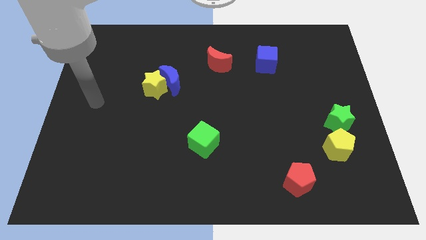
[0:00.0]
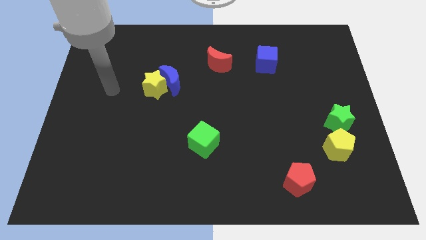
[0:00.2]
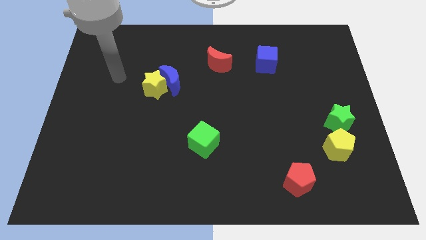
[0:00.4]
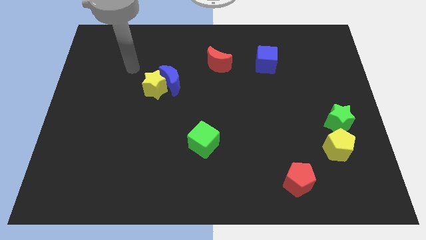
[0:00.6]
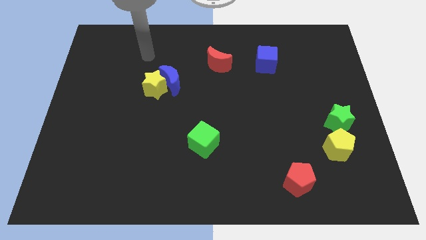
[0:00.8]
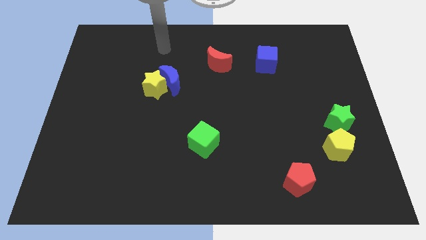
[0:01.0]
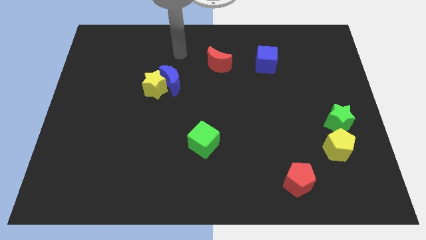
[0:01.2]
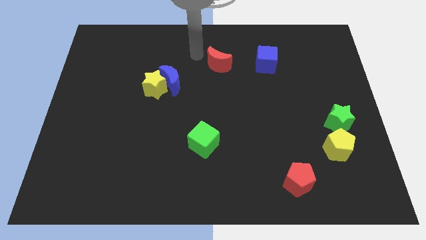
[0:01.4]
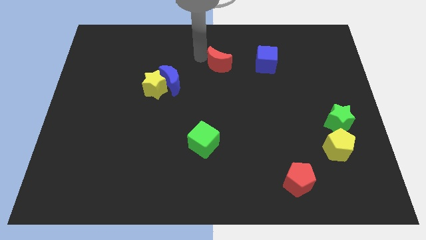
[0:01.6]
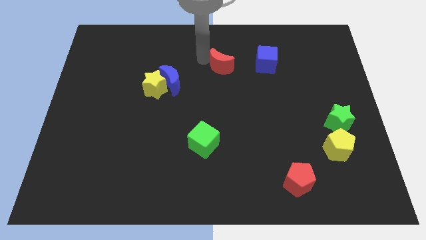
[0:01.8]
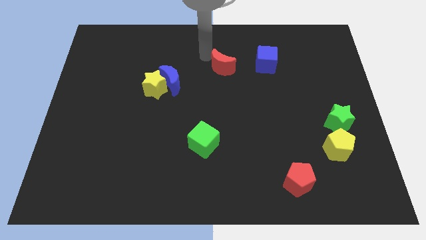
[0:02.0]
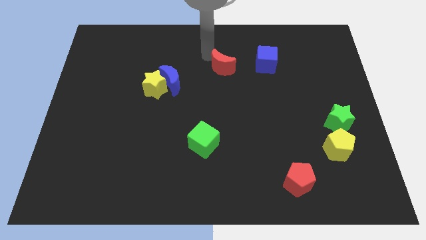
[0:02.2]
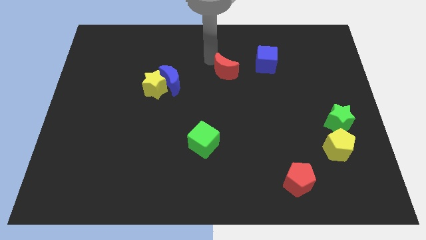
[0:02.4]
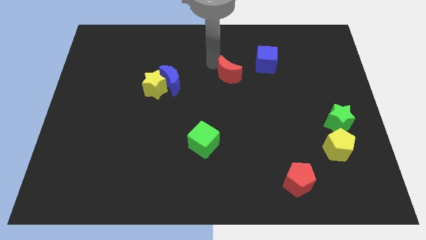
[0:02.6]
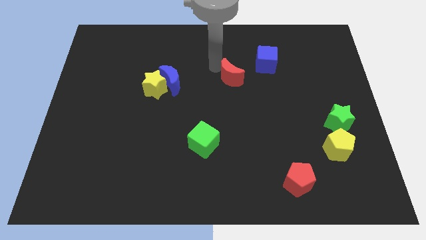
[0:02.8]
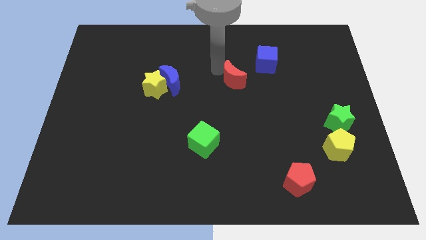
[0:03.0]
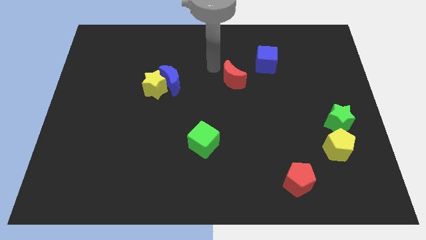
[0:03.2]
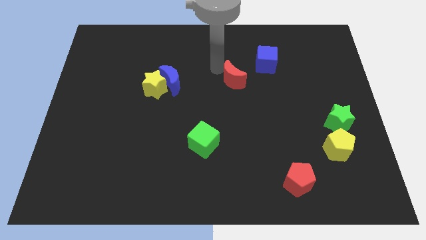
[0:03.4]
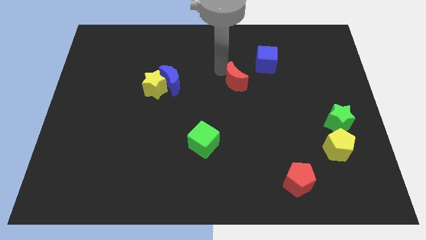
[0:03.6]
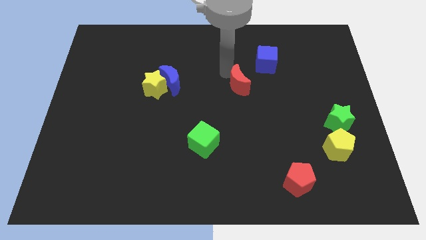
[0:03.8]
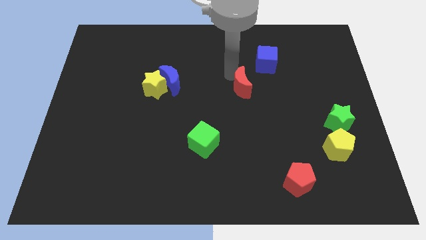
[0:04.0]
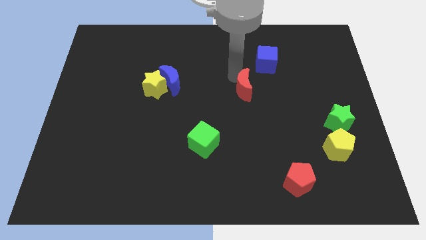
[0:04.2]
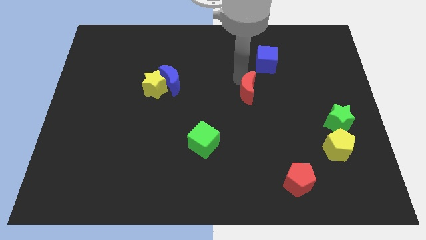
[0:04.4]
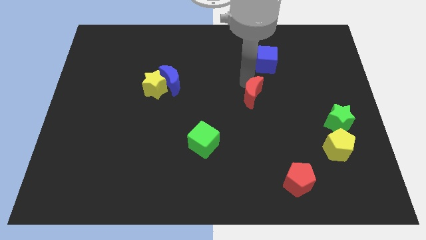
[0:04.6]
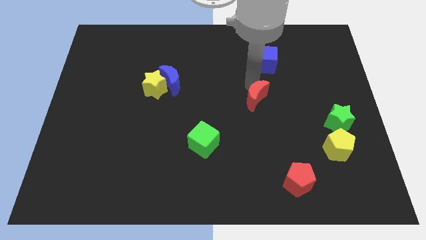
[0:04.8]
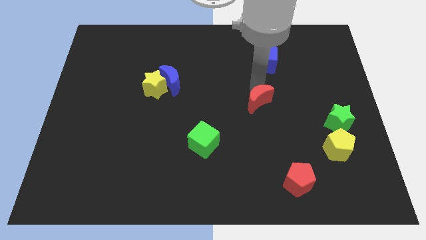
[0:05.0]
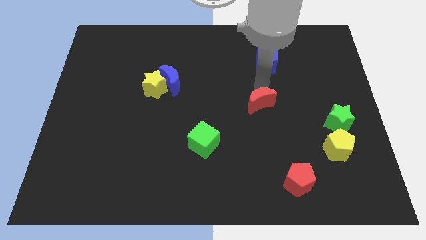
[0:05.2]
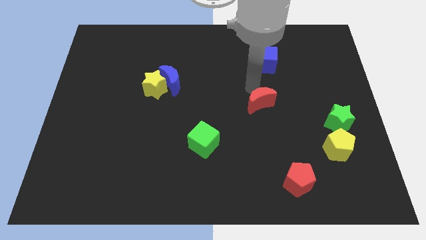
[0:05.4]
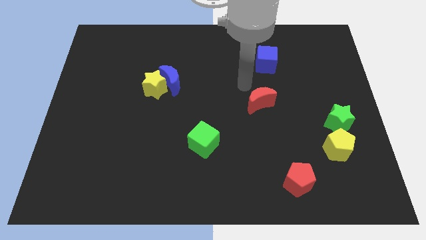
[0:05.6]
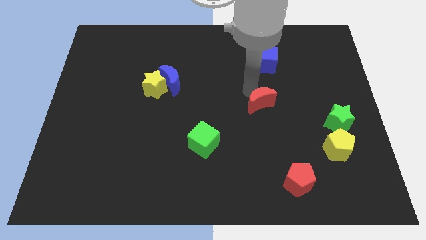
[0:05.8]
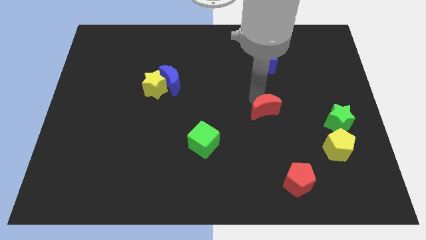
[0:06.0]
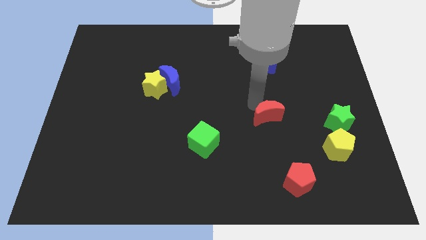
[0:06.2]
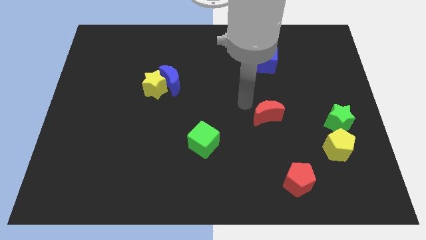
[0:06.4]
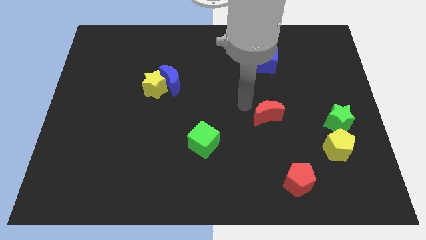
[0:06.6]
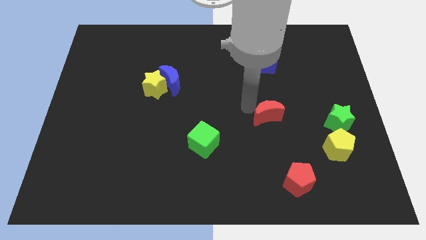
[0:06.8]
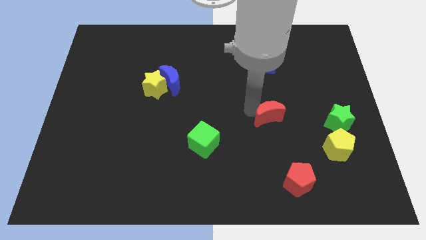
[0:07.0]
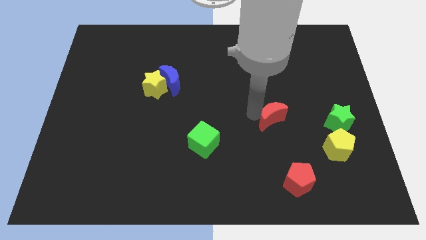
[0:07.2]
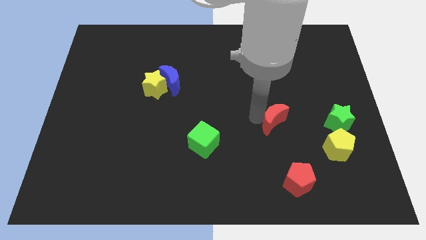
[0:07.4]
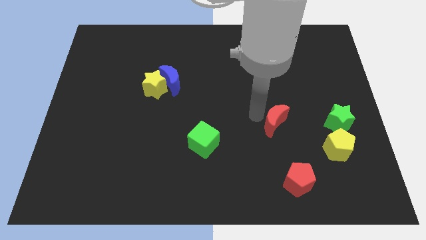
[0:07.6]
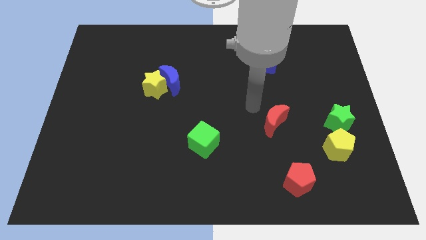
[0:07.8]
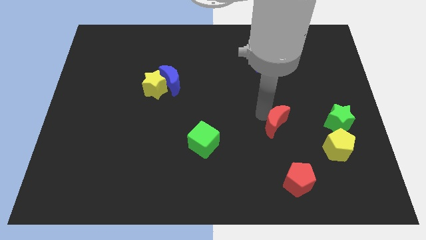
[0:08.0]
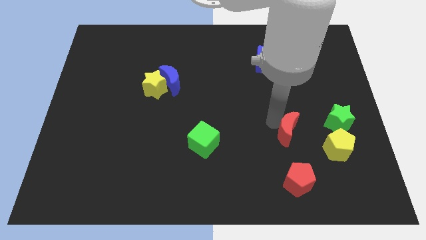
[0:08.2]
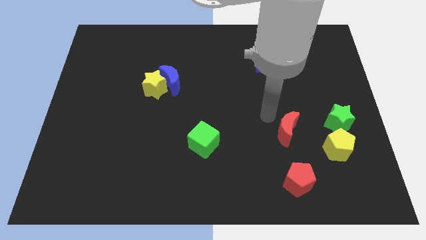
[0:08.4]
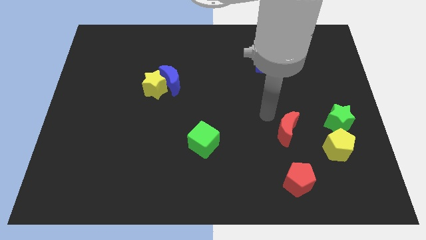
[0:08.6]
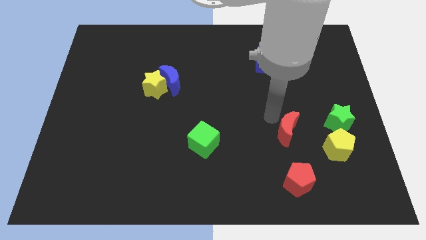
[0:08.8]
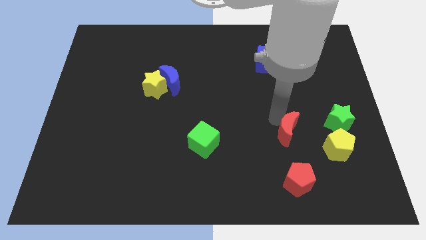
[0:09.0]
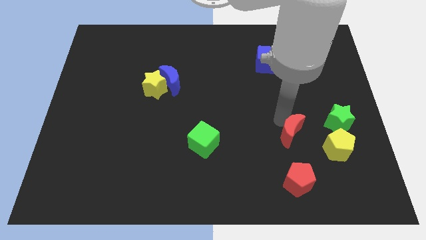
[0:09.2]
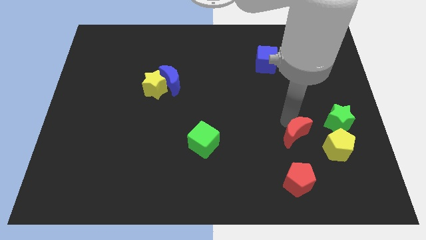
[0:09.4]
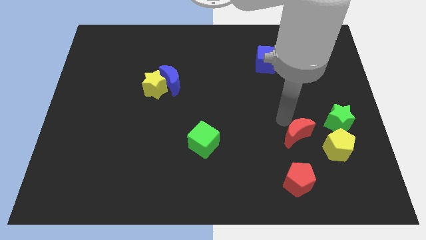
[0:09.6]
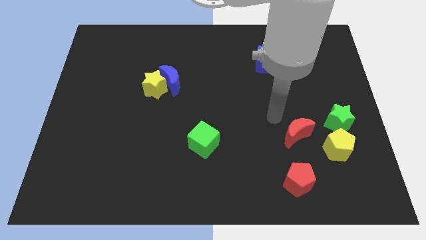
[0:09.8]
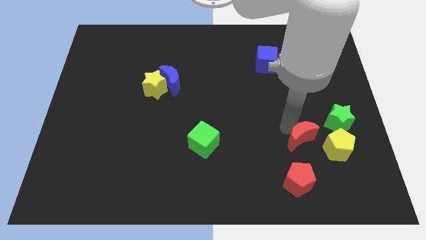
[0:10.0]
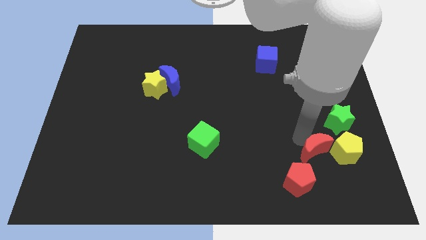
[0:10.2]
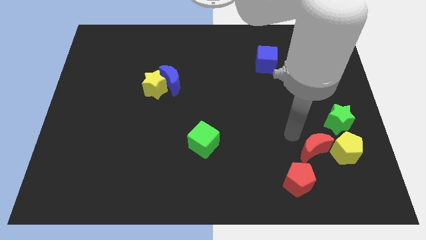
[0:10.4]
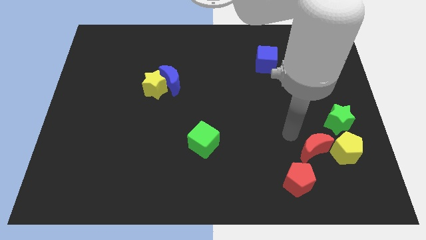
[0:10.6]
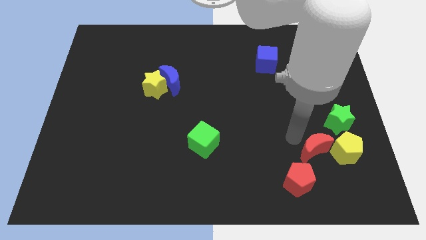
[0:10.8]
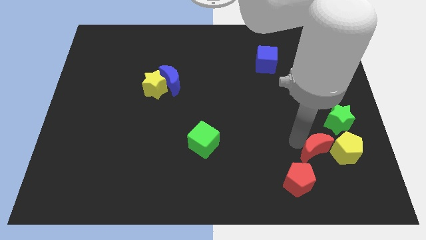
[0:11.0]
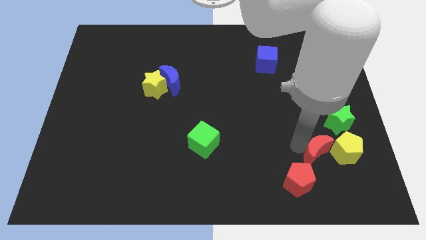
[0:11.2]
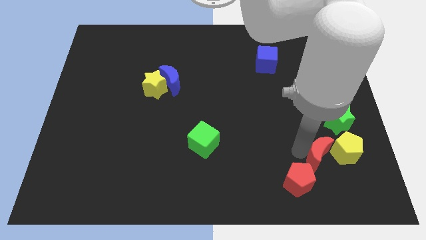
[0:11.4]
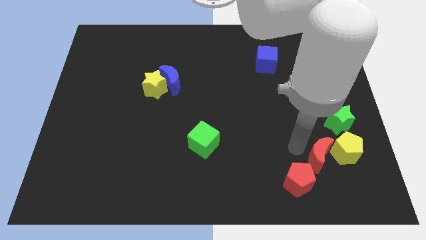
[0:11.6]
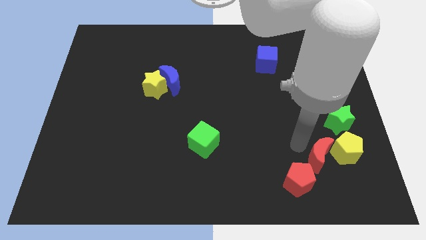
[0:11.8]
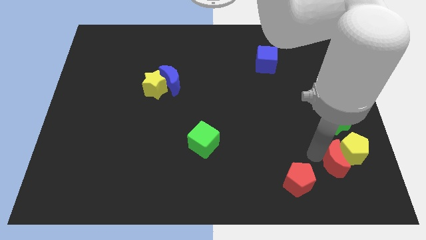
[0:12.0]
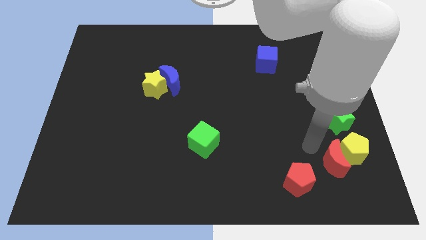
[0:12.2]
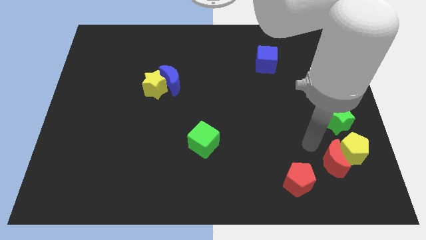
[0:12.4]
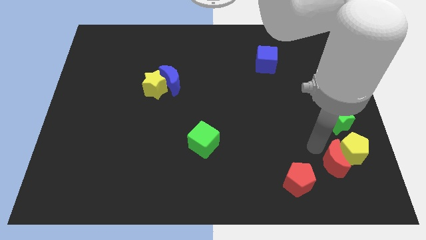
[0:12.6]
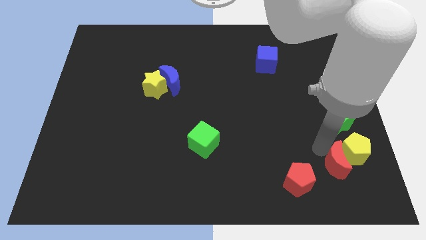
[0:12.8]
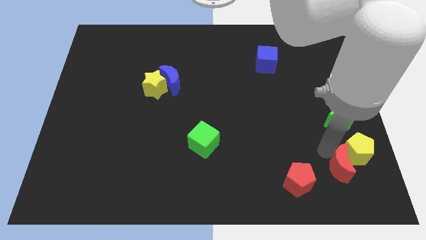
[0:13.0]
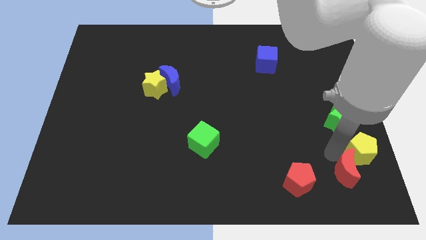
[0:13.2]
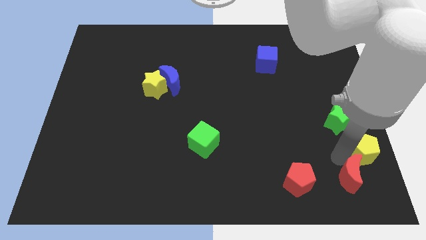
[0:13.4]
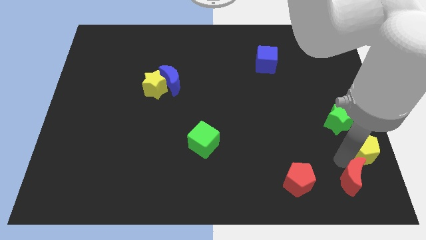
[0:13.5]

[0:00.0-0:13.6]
move the red moon to the bottom right
